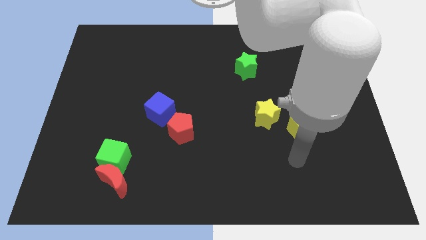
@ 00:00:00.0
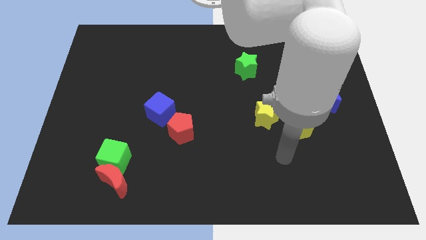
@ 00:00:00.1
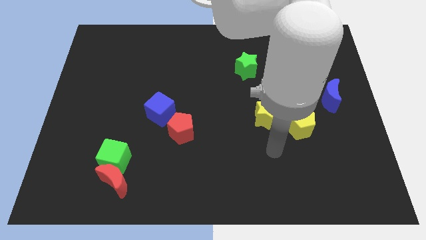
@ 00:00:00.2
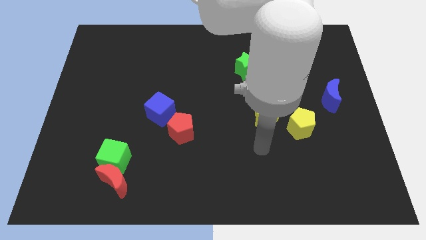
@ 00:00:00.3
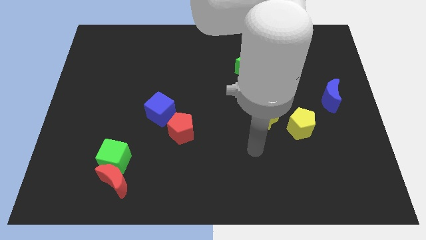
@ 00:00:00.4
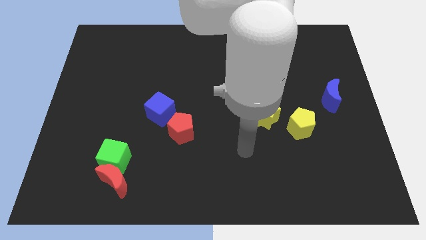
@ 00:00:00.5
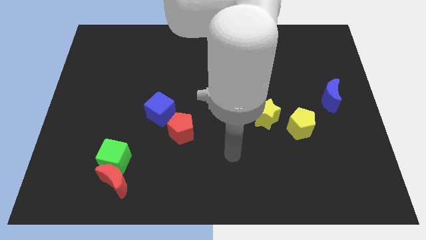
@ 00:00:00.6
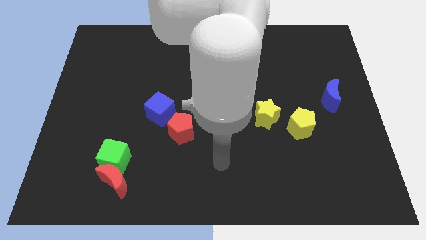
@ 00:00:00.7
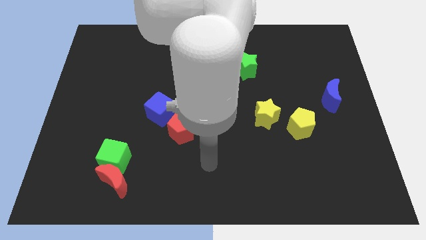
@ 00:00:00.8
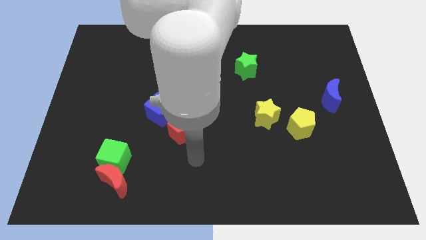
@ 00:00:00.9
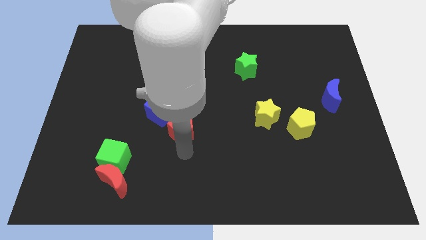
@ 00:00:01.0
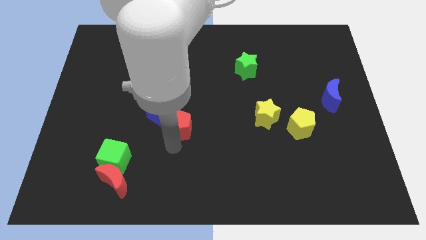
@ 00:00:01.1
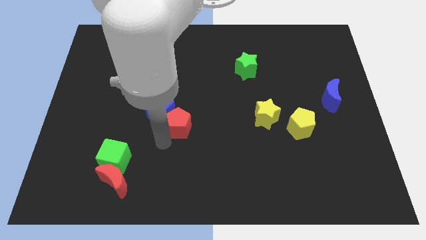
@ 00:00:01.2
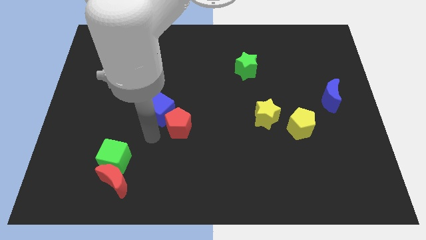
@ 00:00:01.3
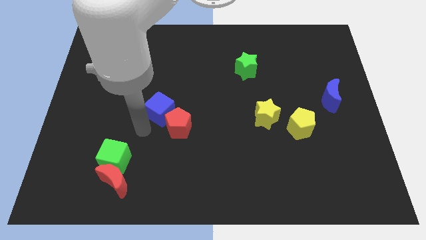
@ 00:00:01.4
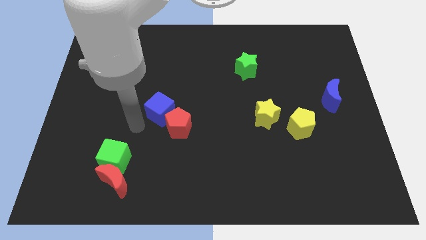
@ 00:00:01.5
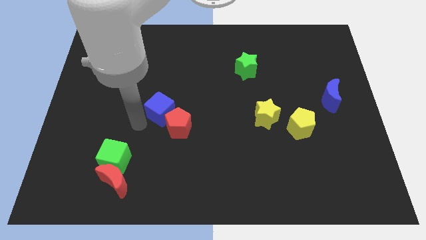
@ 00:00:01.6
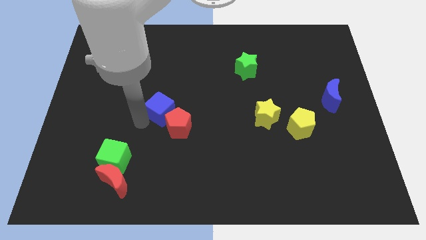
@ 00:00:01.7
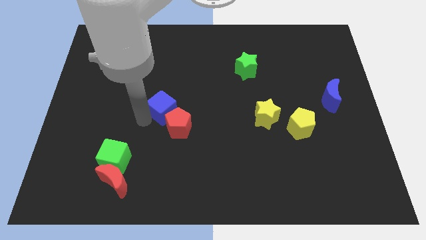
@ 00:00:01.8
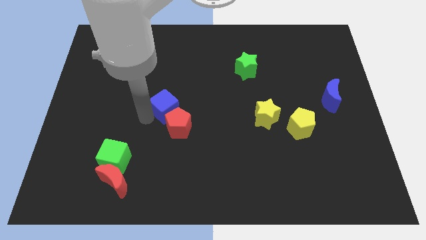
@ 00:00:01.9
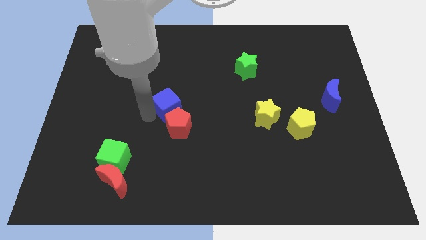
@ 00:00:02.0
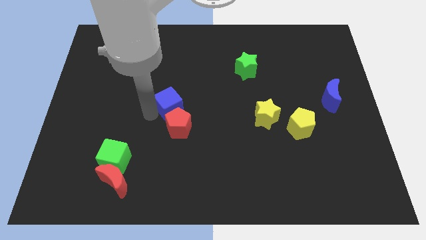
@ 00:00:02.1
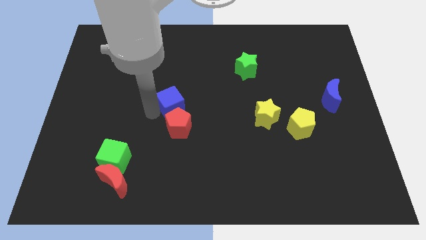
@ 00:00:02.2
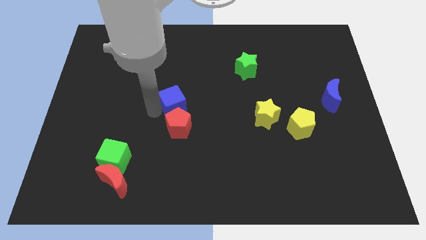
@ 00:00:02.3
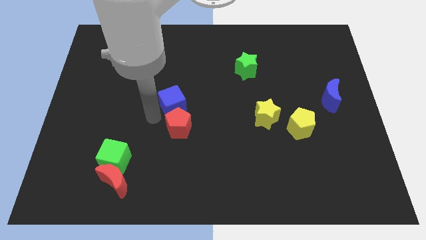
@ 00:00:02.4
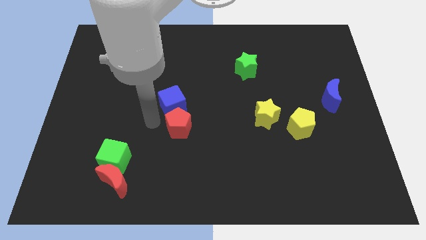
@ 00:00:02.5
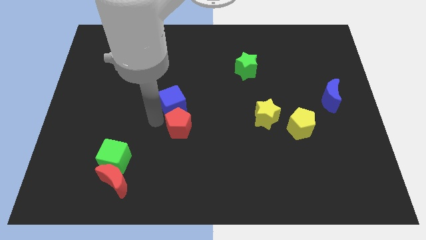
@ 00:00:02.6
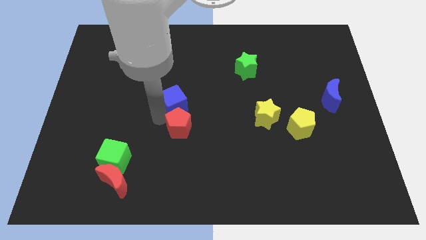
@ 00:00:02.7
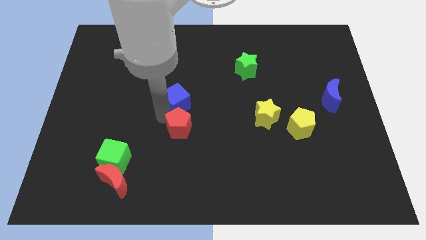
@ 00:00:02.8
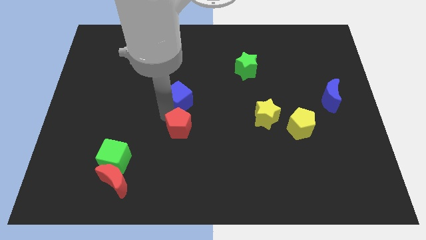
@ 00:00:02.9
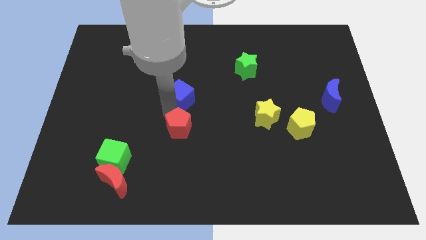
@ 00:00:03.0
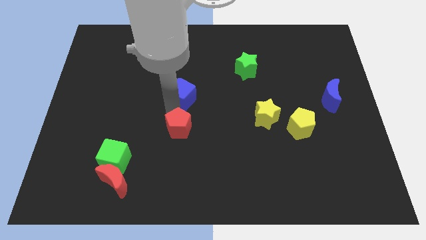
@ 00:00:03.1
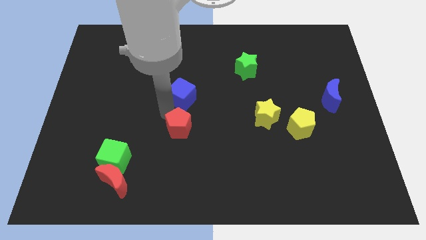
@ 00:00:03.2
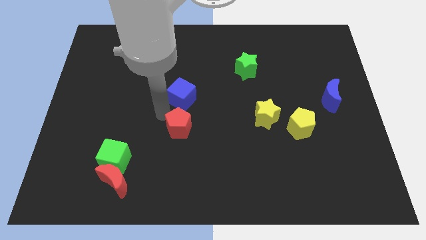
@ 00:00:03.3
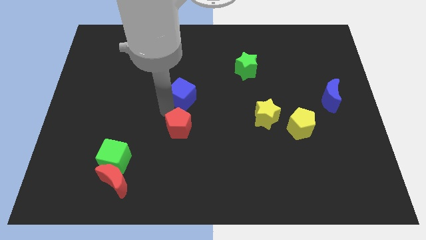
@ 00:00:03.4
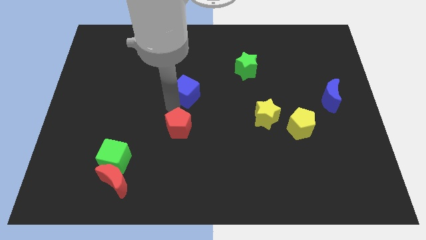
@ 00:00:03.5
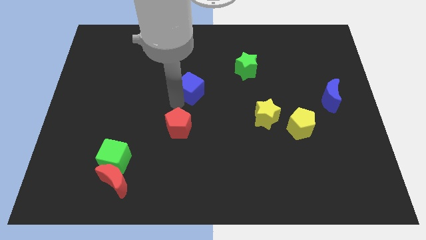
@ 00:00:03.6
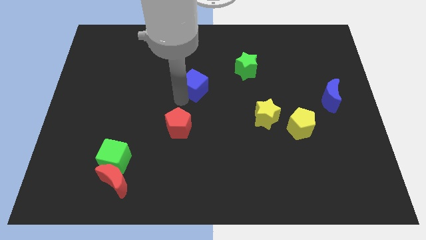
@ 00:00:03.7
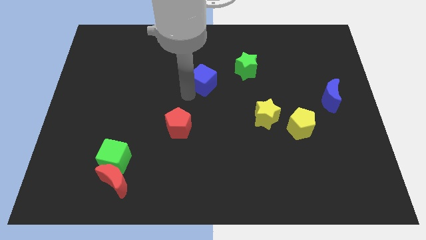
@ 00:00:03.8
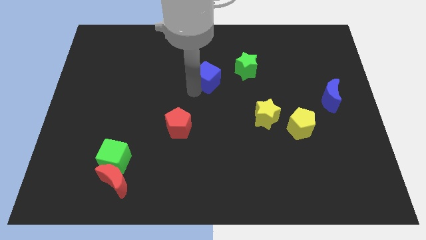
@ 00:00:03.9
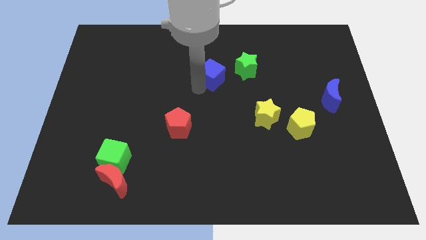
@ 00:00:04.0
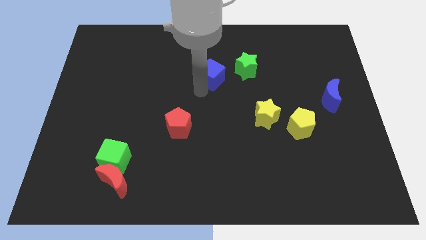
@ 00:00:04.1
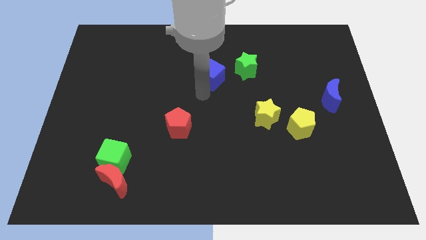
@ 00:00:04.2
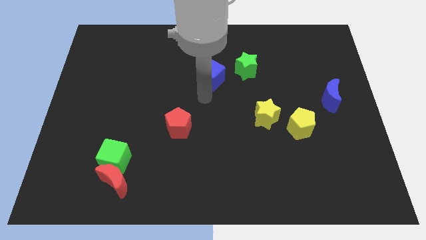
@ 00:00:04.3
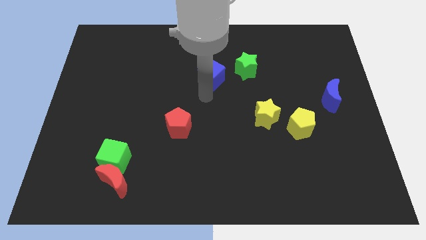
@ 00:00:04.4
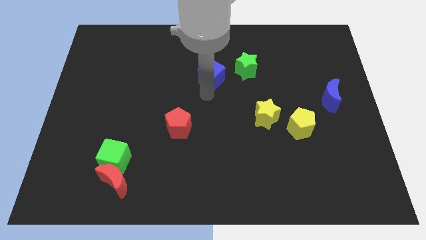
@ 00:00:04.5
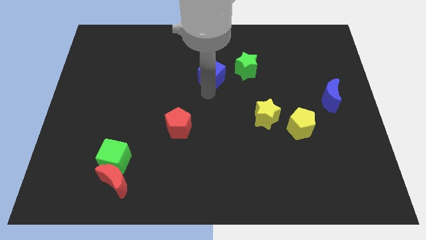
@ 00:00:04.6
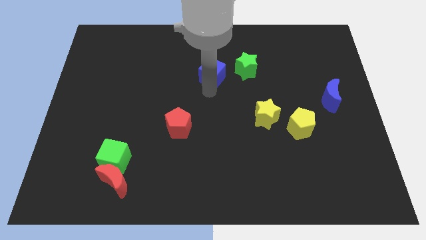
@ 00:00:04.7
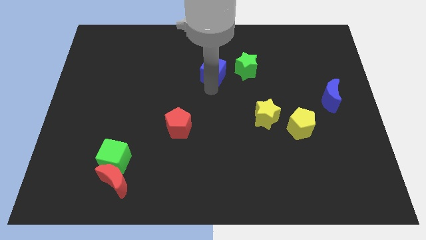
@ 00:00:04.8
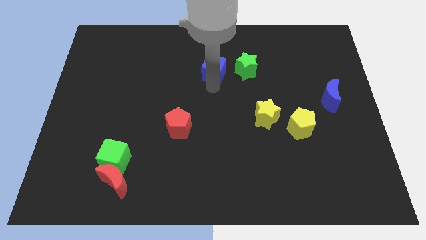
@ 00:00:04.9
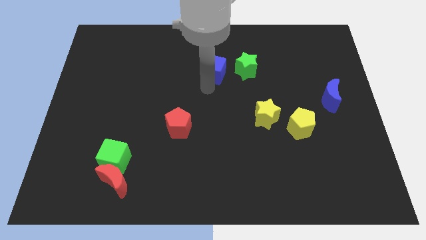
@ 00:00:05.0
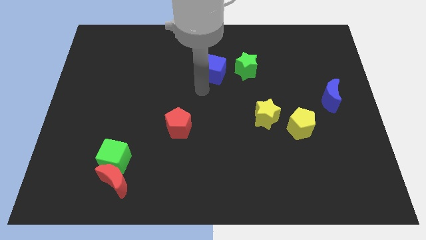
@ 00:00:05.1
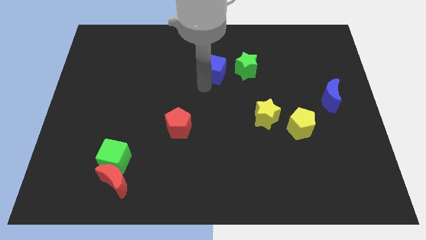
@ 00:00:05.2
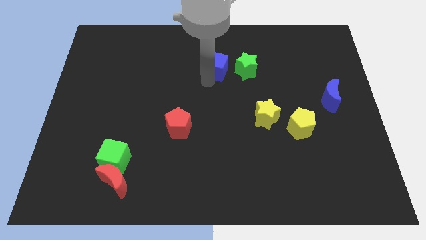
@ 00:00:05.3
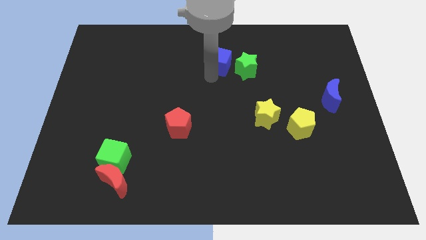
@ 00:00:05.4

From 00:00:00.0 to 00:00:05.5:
slide the blue cube to the top left of the green star

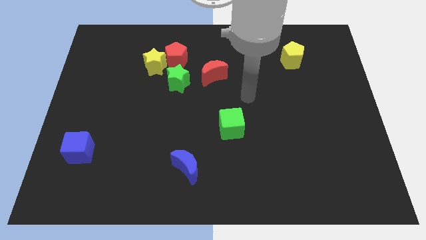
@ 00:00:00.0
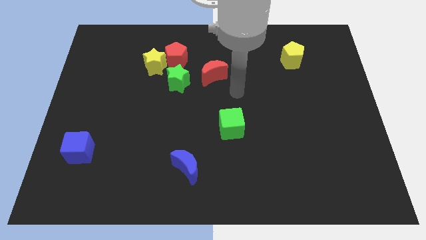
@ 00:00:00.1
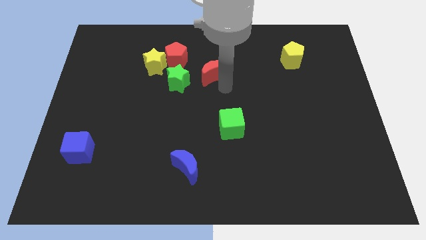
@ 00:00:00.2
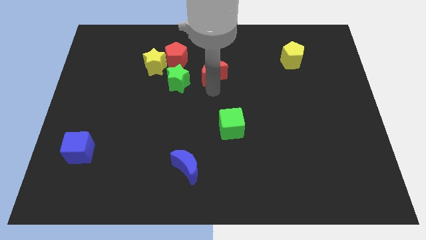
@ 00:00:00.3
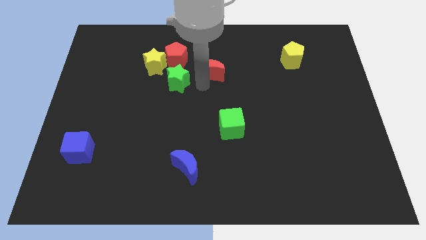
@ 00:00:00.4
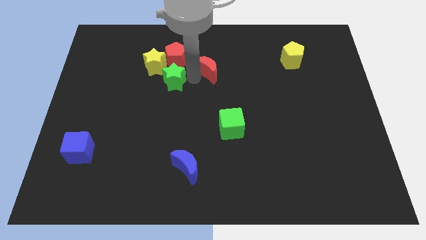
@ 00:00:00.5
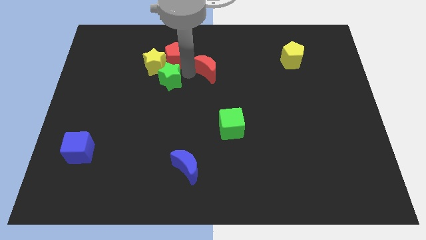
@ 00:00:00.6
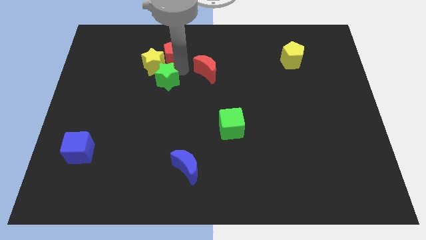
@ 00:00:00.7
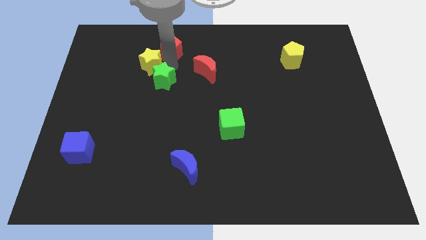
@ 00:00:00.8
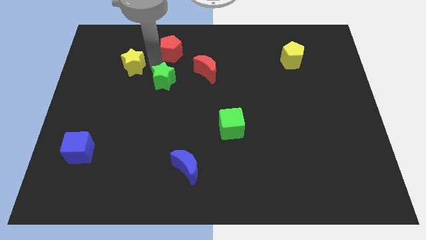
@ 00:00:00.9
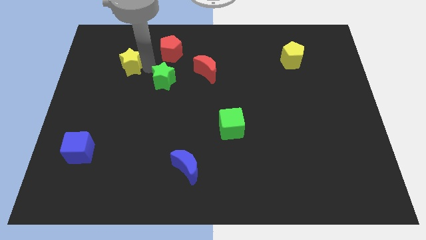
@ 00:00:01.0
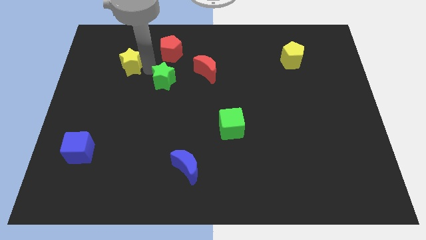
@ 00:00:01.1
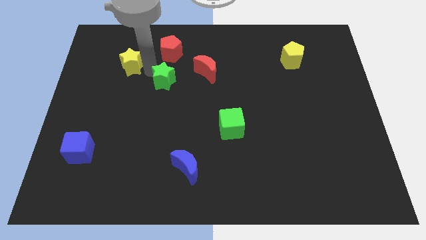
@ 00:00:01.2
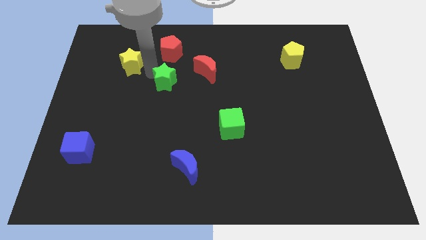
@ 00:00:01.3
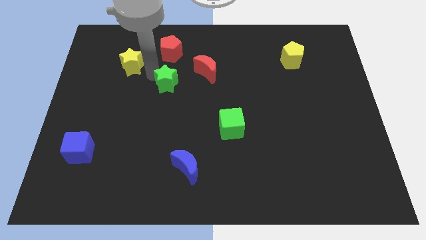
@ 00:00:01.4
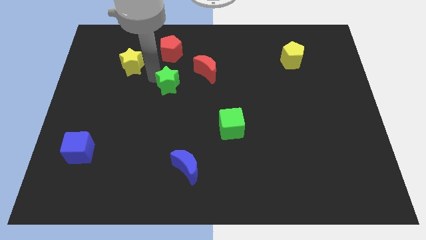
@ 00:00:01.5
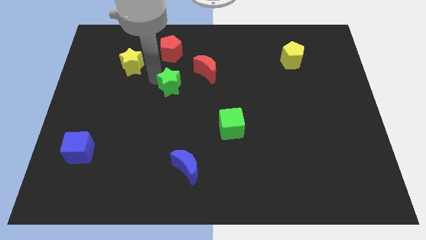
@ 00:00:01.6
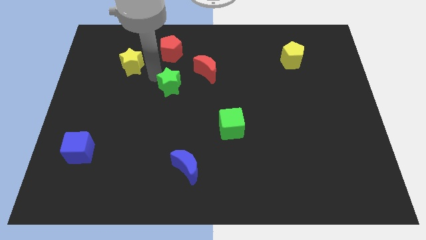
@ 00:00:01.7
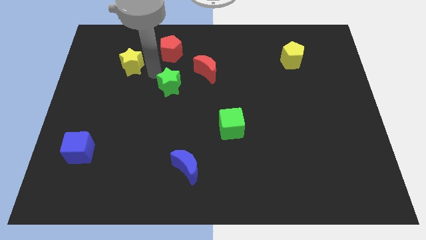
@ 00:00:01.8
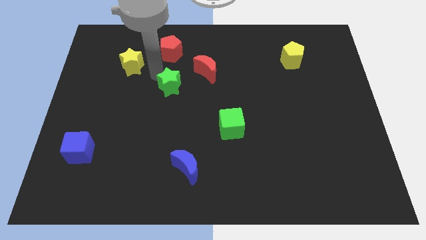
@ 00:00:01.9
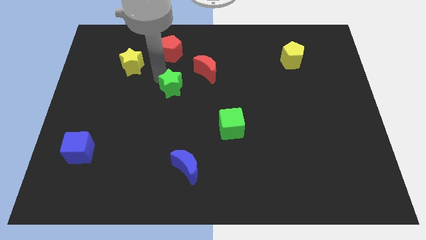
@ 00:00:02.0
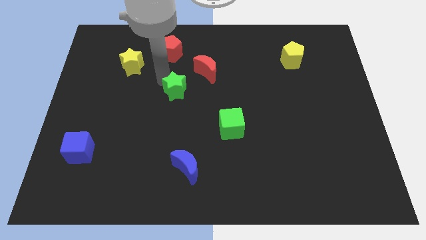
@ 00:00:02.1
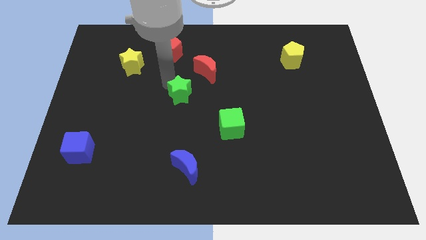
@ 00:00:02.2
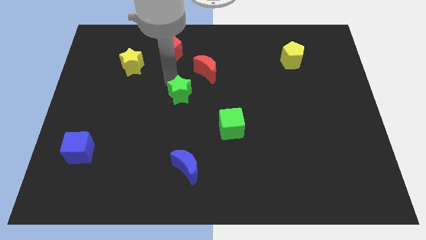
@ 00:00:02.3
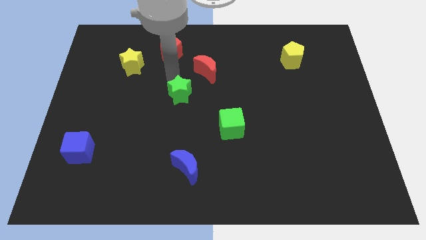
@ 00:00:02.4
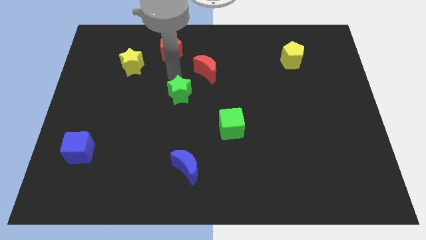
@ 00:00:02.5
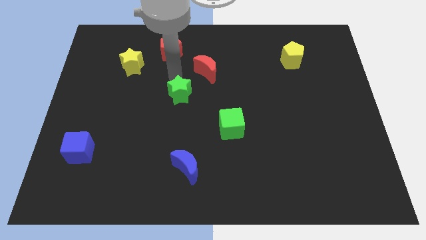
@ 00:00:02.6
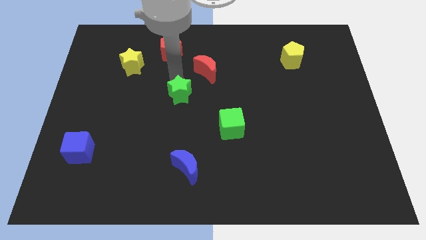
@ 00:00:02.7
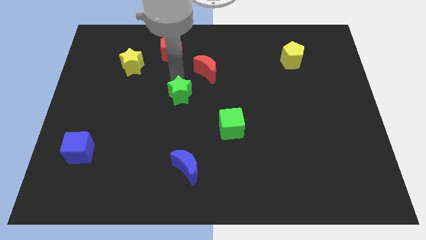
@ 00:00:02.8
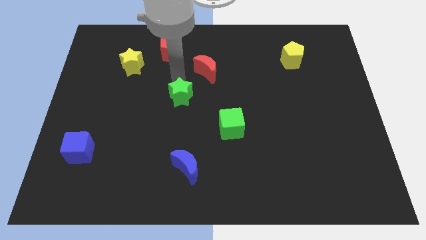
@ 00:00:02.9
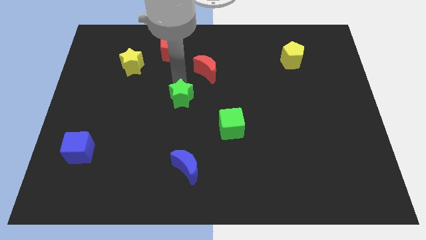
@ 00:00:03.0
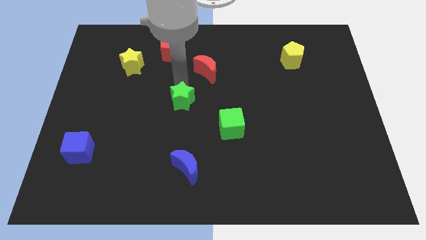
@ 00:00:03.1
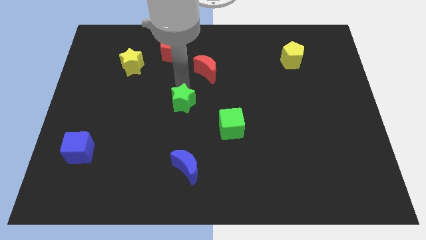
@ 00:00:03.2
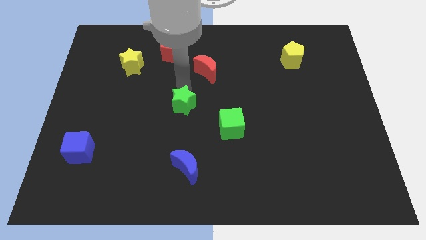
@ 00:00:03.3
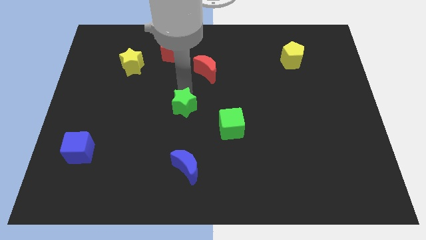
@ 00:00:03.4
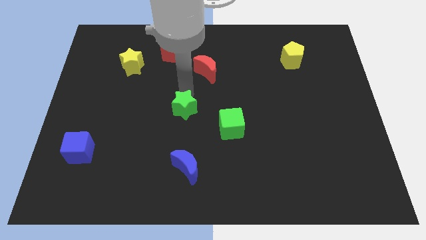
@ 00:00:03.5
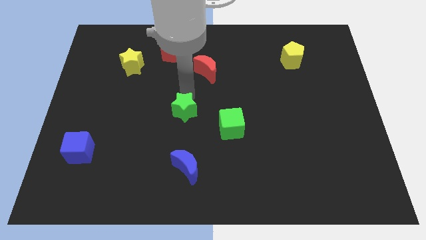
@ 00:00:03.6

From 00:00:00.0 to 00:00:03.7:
push the green star to the left side of the green cube
